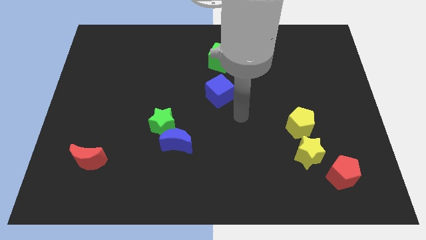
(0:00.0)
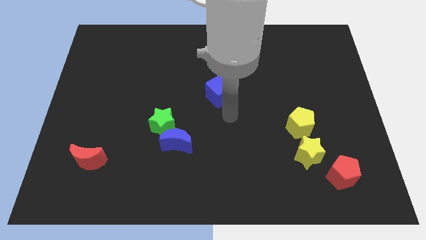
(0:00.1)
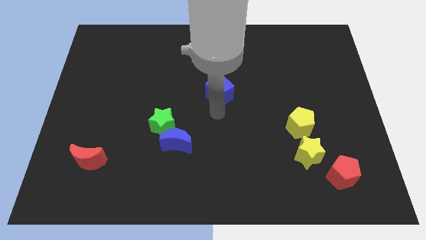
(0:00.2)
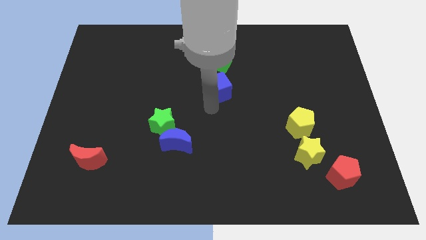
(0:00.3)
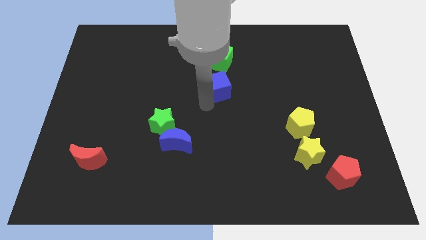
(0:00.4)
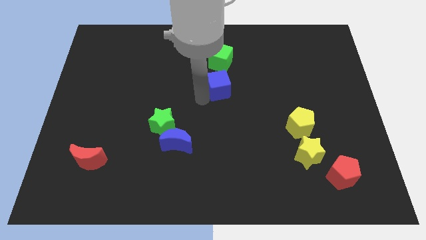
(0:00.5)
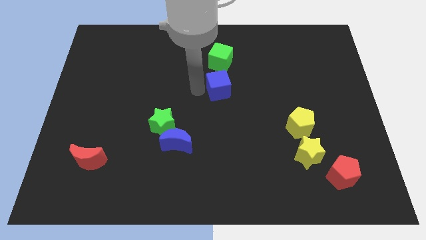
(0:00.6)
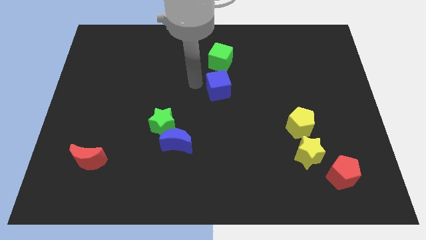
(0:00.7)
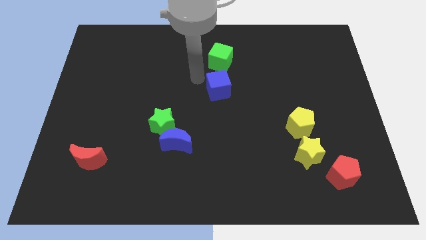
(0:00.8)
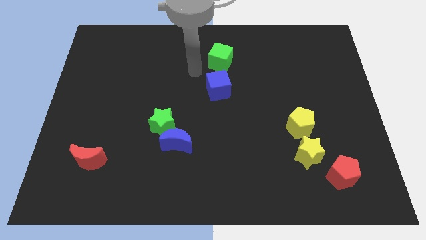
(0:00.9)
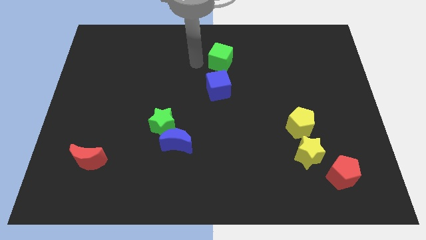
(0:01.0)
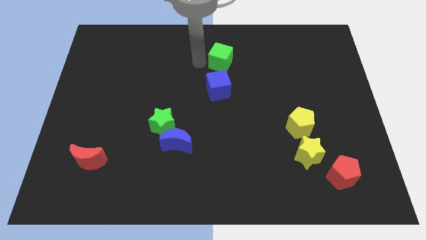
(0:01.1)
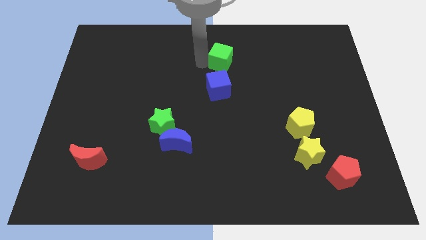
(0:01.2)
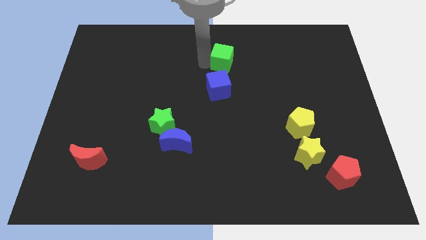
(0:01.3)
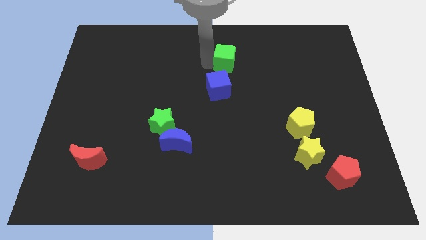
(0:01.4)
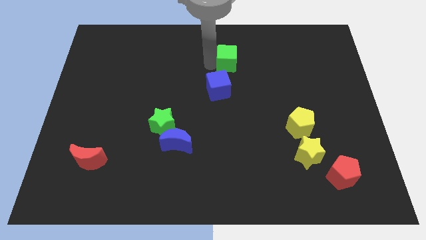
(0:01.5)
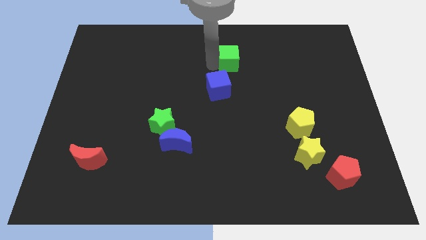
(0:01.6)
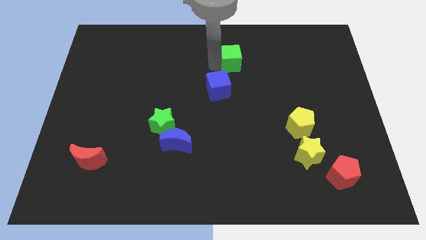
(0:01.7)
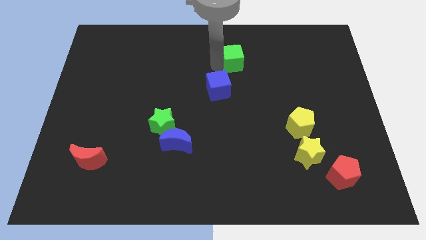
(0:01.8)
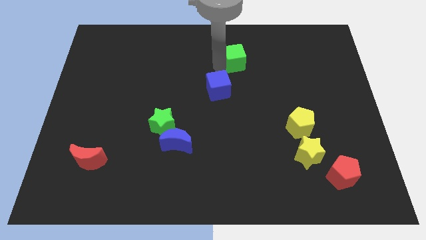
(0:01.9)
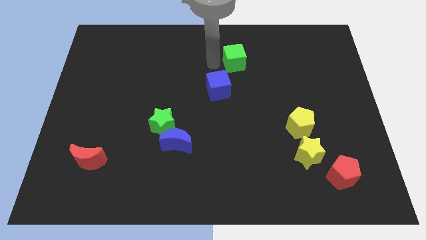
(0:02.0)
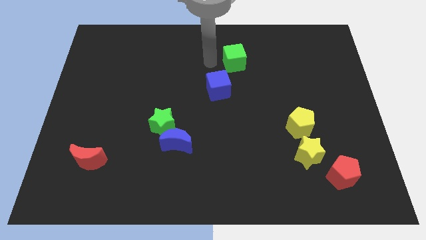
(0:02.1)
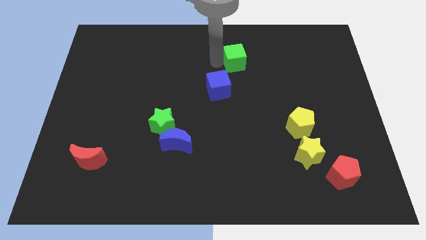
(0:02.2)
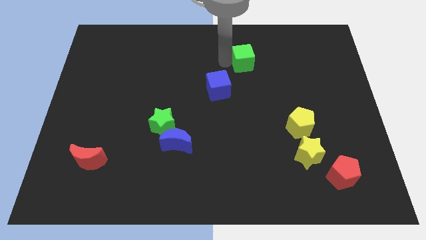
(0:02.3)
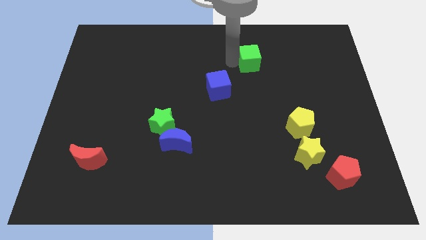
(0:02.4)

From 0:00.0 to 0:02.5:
move the green cube to the right a little

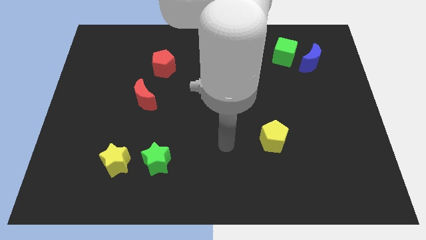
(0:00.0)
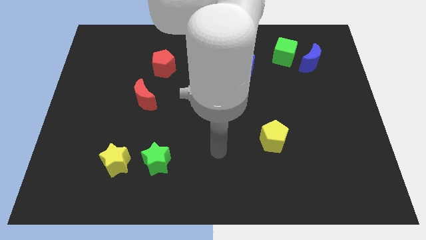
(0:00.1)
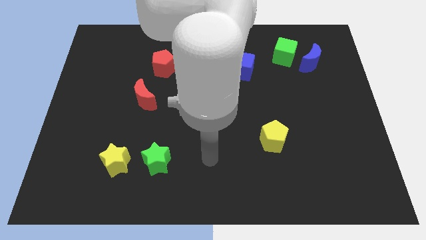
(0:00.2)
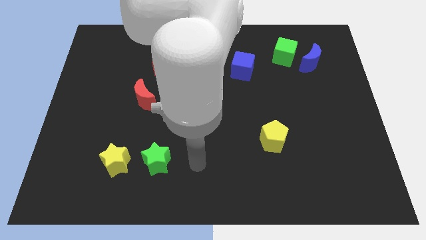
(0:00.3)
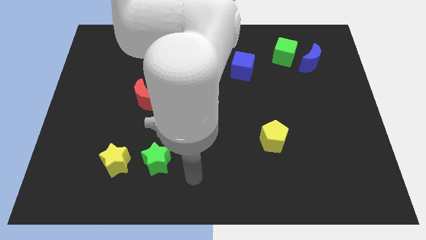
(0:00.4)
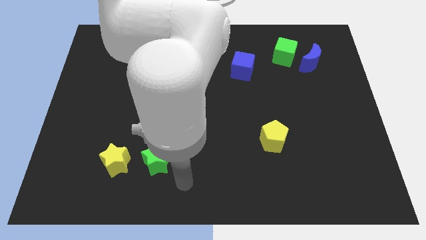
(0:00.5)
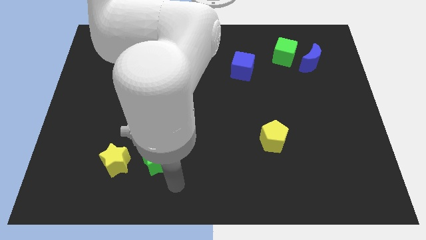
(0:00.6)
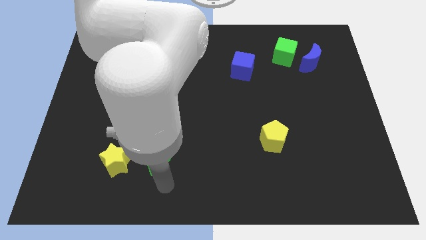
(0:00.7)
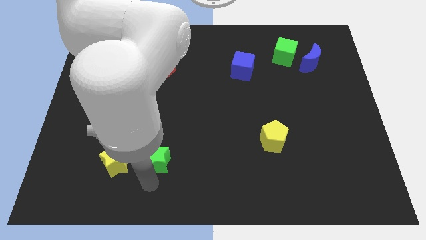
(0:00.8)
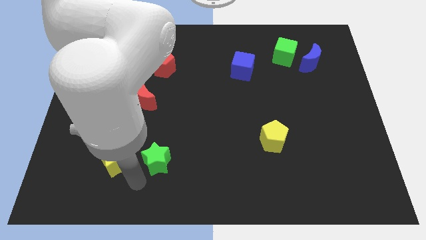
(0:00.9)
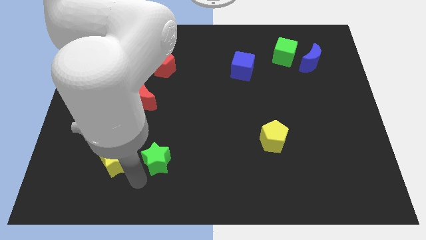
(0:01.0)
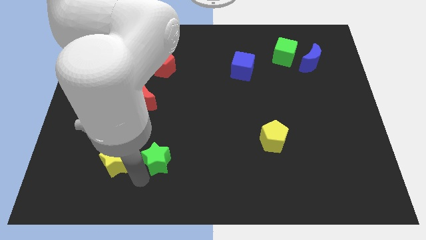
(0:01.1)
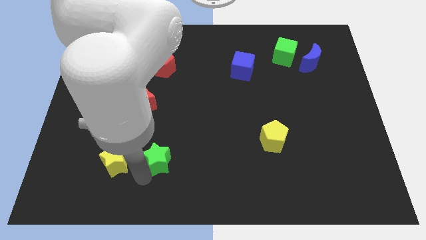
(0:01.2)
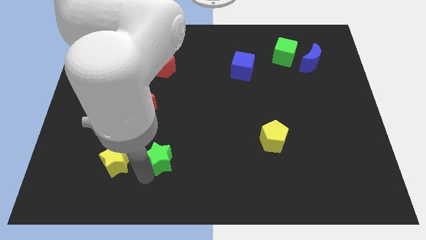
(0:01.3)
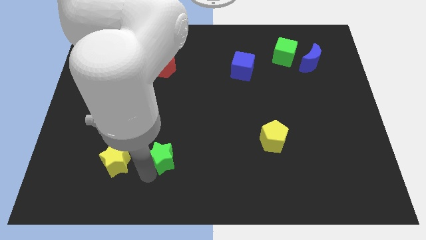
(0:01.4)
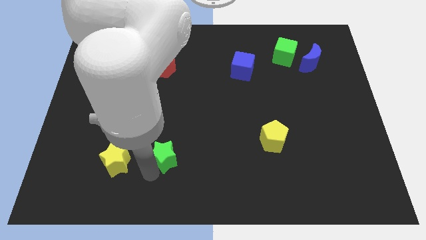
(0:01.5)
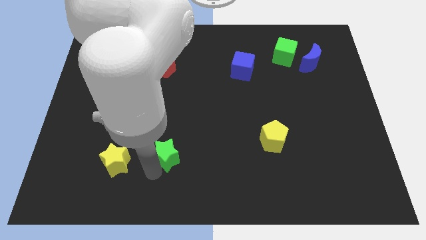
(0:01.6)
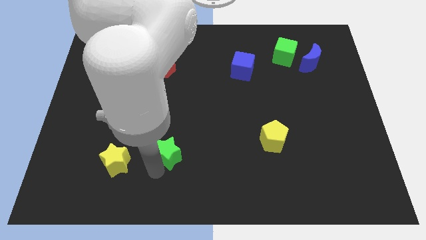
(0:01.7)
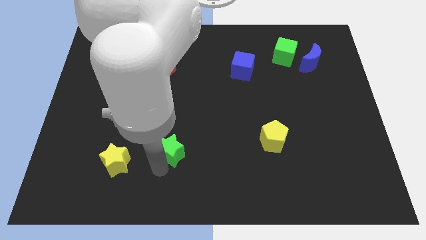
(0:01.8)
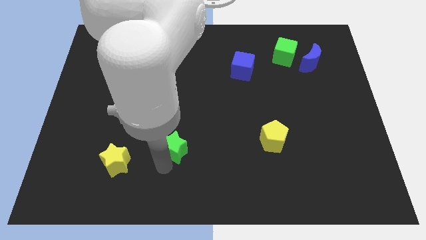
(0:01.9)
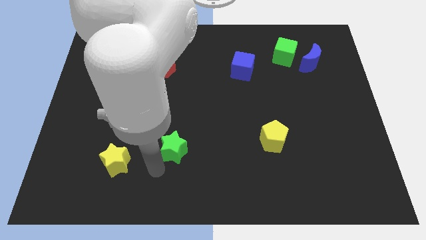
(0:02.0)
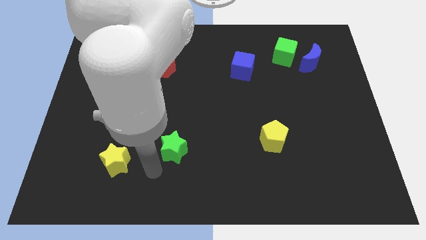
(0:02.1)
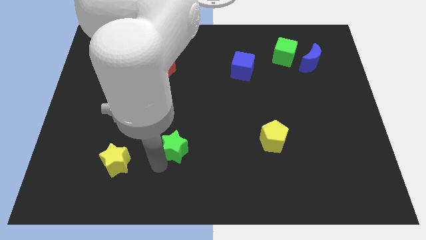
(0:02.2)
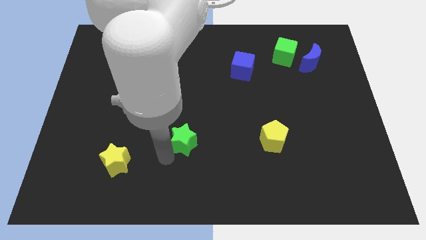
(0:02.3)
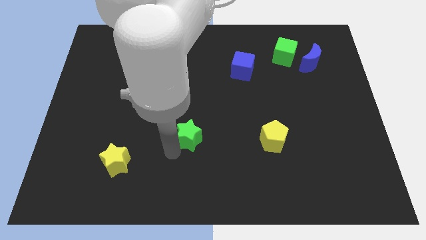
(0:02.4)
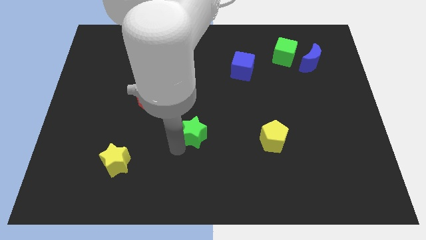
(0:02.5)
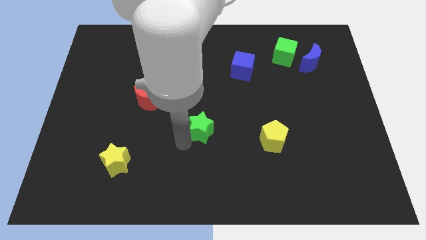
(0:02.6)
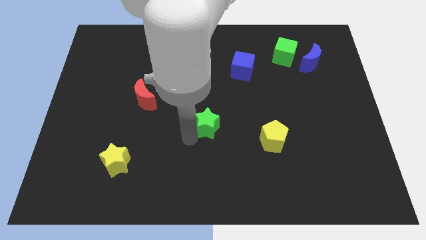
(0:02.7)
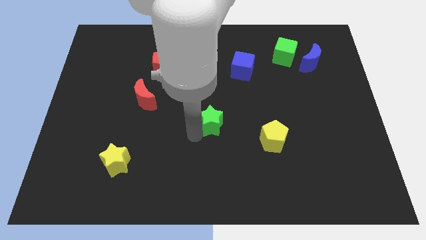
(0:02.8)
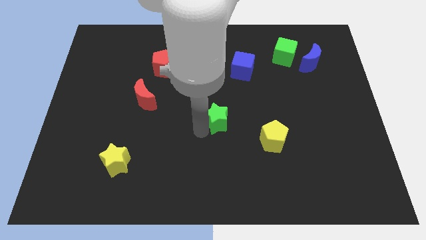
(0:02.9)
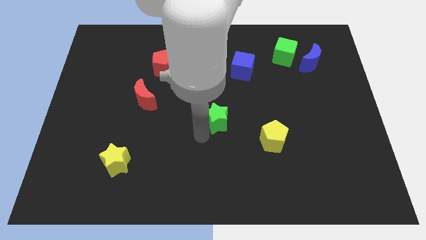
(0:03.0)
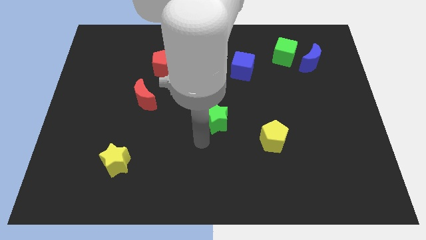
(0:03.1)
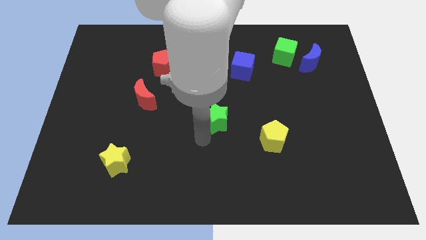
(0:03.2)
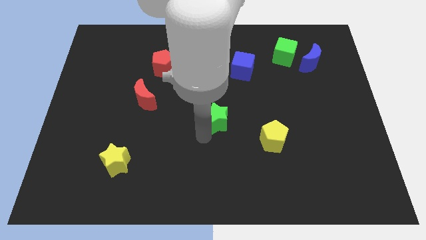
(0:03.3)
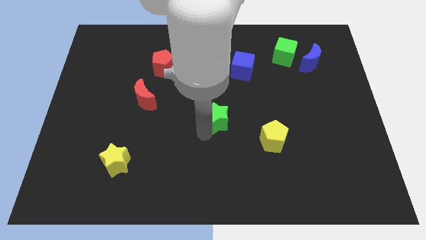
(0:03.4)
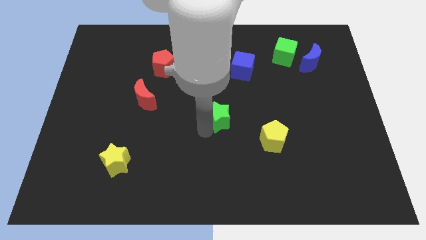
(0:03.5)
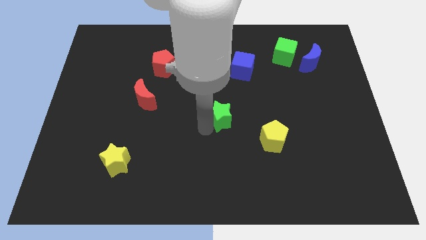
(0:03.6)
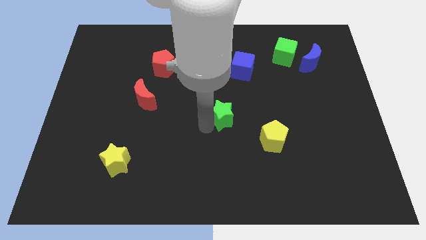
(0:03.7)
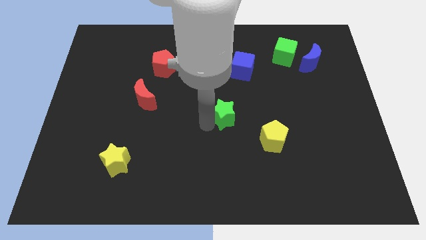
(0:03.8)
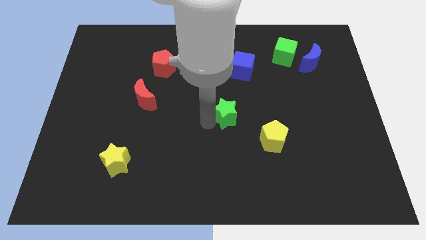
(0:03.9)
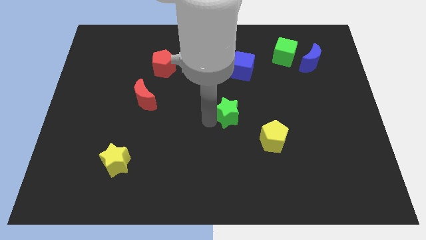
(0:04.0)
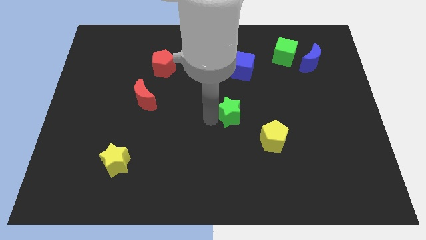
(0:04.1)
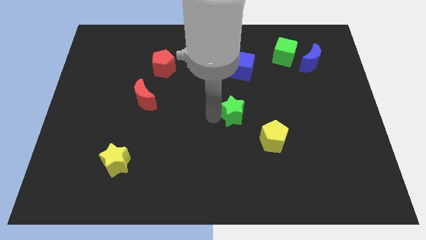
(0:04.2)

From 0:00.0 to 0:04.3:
push the green star upwards and to the right diagonally

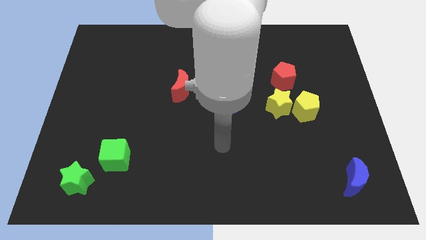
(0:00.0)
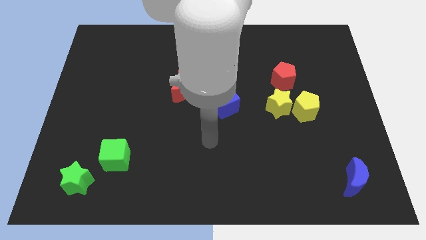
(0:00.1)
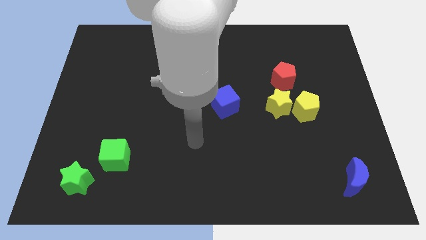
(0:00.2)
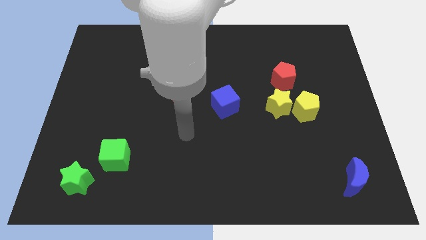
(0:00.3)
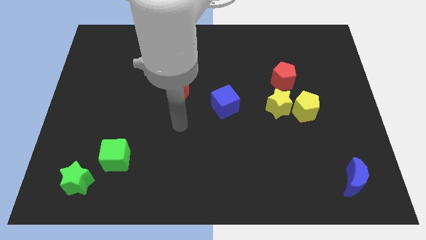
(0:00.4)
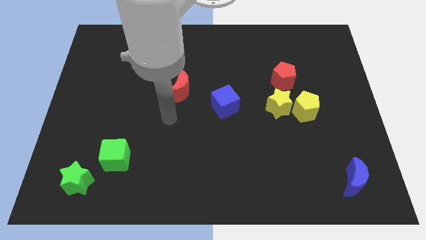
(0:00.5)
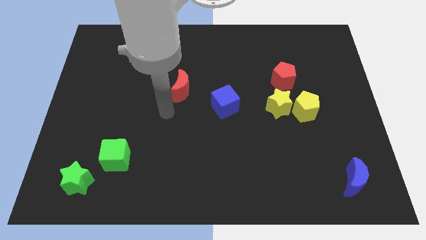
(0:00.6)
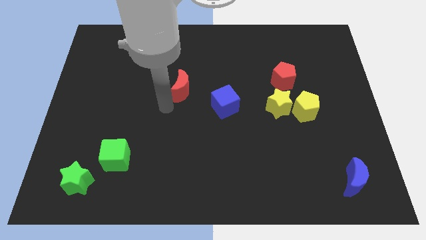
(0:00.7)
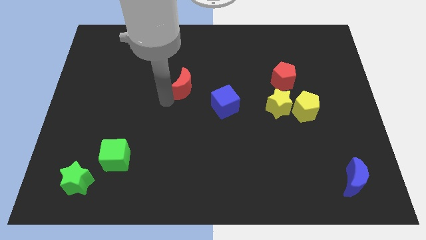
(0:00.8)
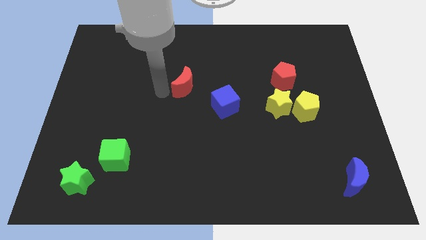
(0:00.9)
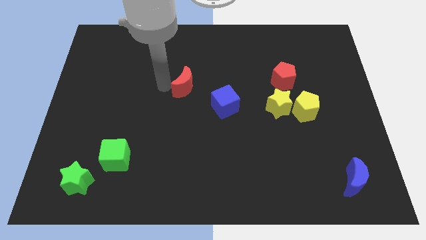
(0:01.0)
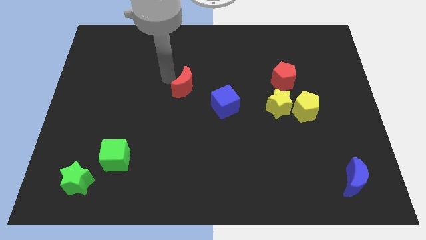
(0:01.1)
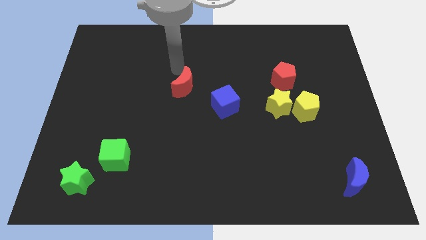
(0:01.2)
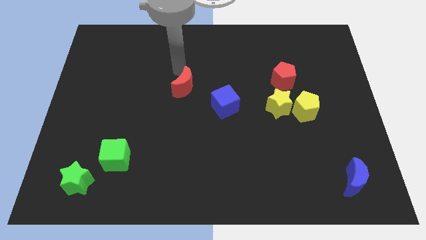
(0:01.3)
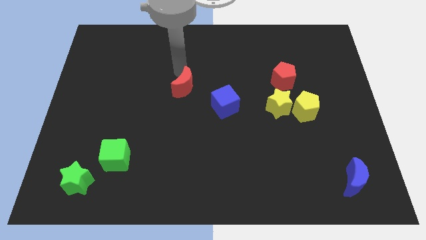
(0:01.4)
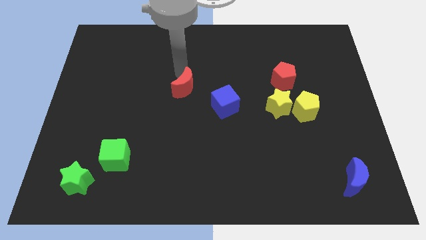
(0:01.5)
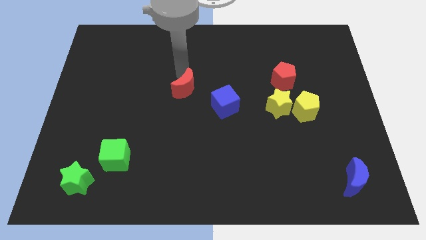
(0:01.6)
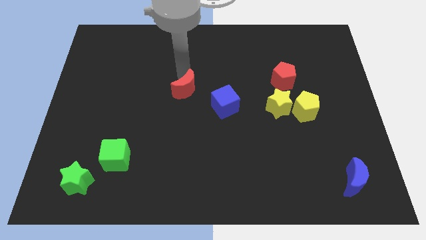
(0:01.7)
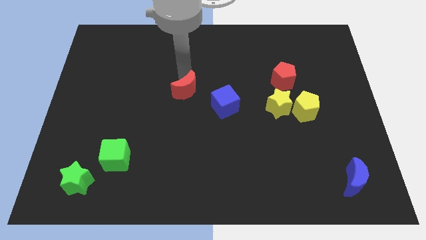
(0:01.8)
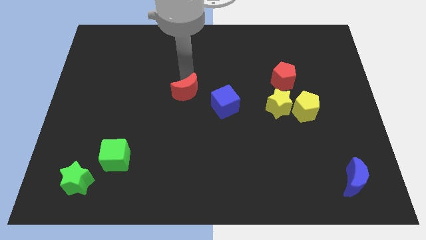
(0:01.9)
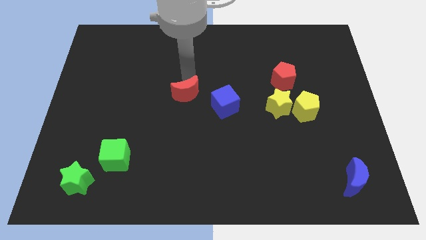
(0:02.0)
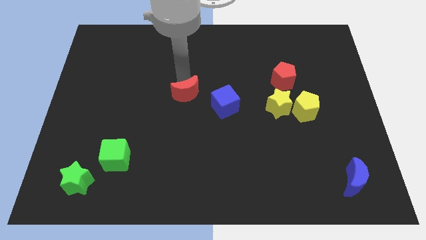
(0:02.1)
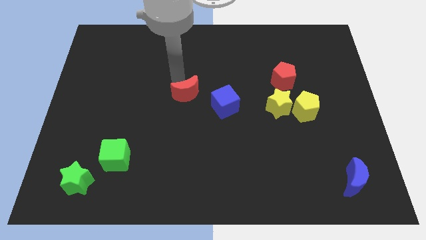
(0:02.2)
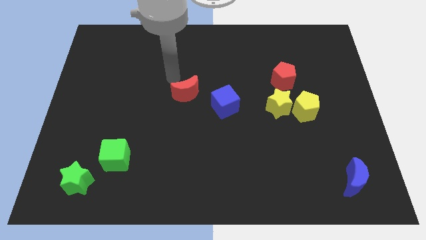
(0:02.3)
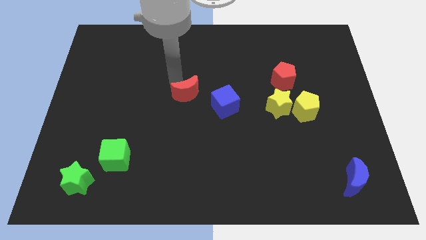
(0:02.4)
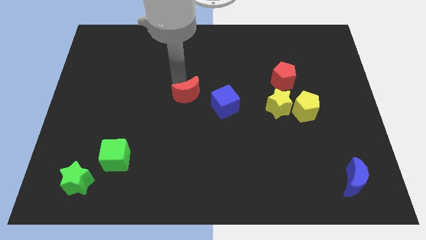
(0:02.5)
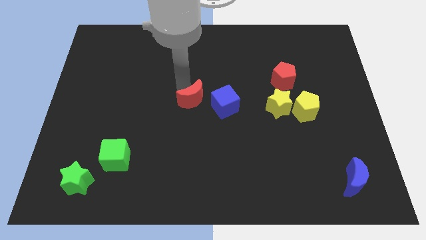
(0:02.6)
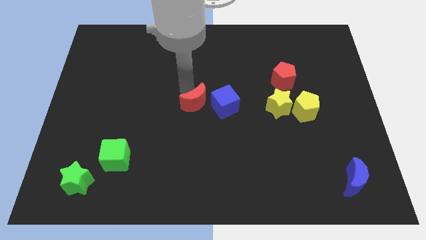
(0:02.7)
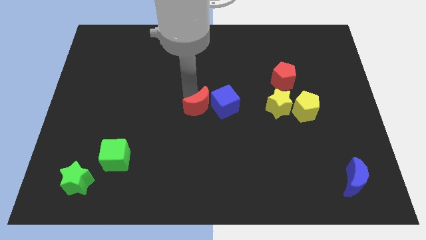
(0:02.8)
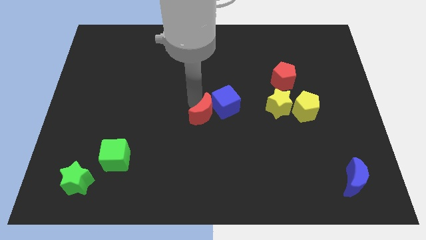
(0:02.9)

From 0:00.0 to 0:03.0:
slightly move the red moon down and to the right
